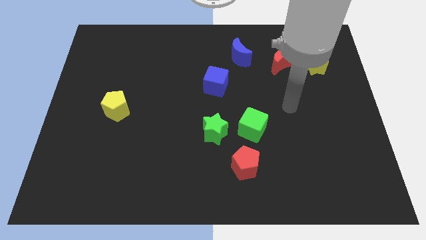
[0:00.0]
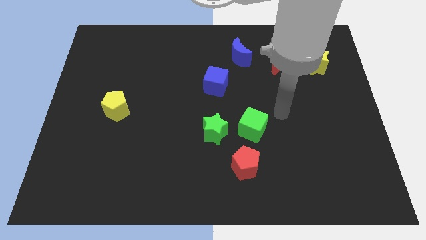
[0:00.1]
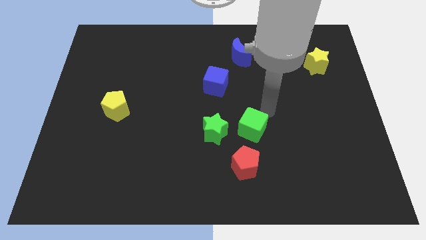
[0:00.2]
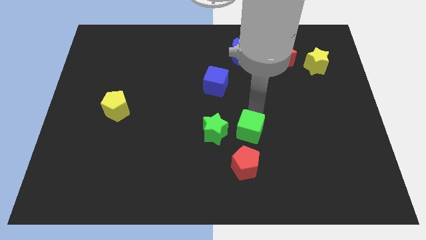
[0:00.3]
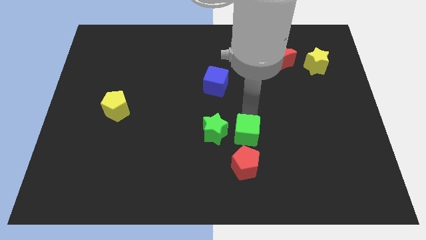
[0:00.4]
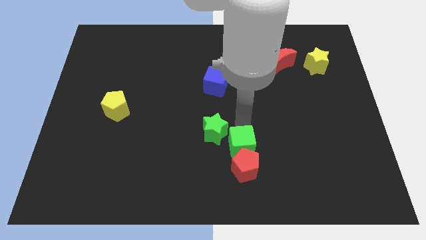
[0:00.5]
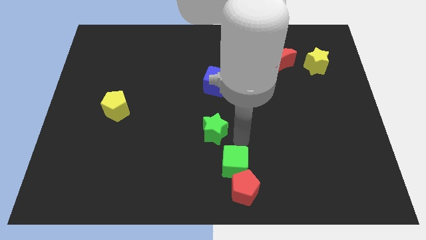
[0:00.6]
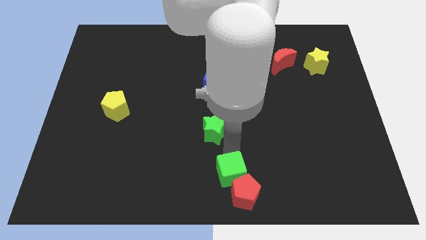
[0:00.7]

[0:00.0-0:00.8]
move the green star away from the green cube

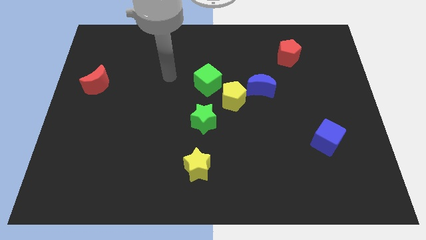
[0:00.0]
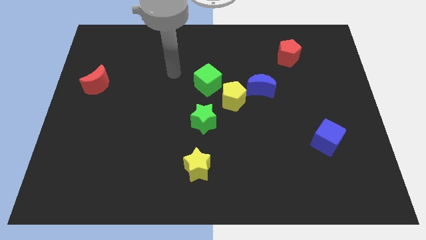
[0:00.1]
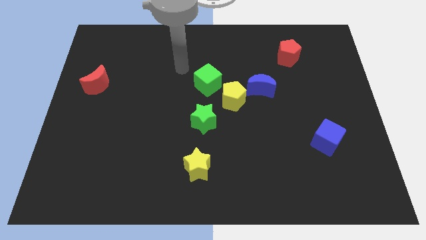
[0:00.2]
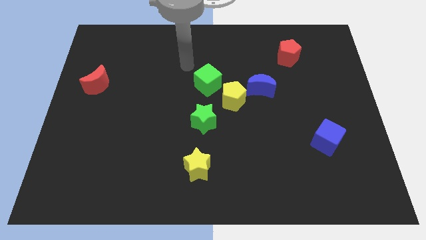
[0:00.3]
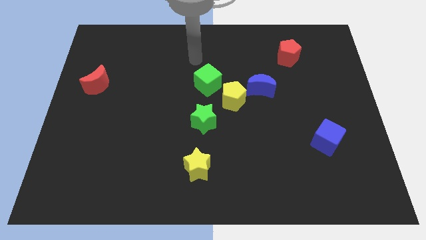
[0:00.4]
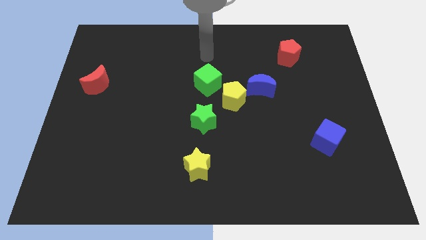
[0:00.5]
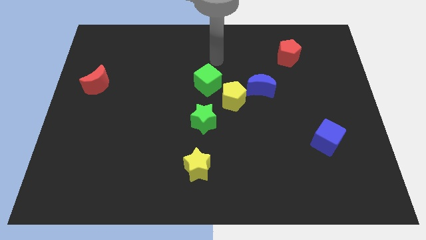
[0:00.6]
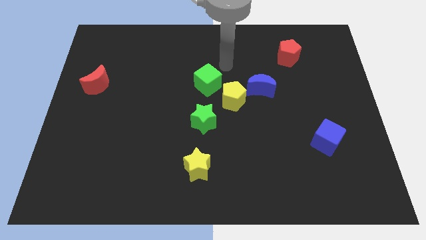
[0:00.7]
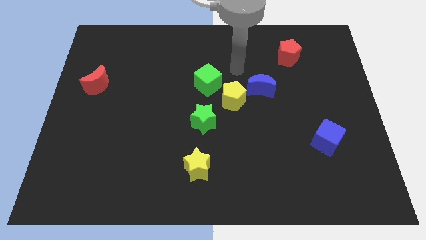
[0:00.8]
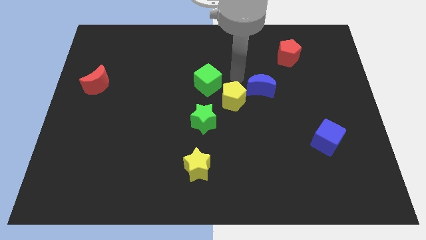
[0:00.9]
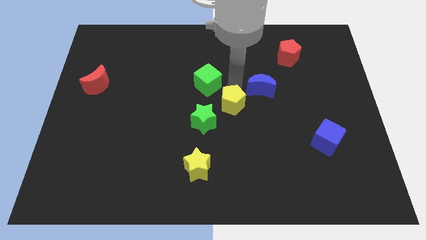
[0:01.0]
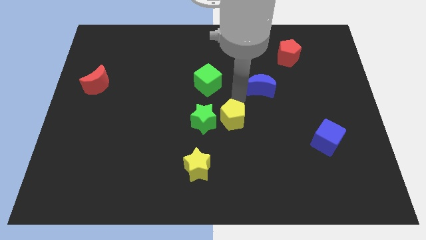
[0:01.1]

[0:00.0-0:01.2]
pull the blue moon apart from the yellow pentagon

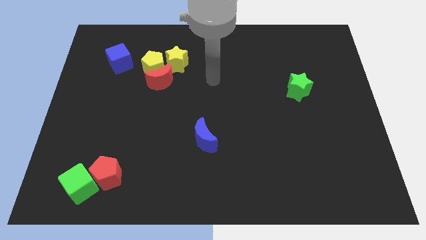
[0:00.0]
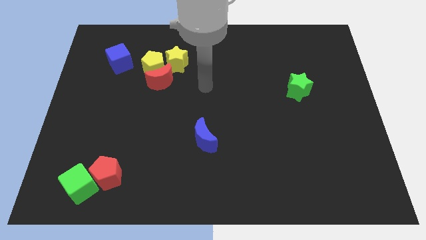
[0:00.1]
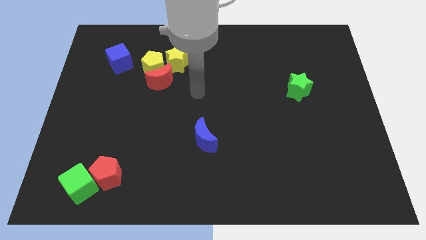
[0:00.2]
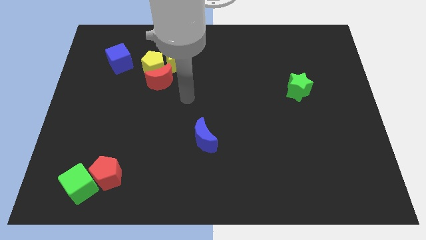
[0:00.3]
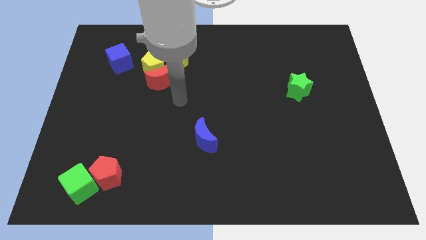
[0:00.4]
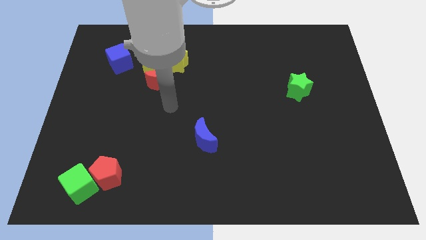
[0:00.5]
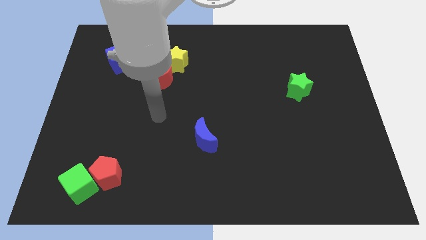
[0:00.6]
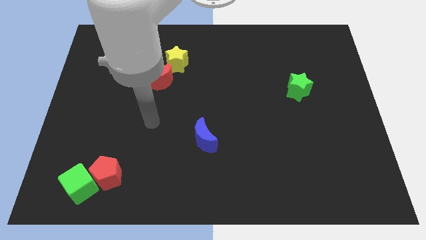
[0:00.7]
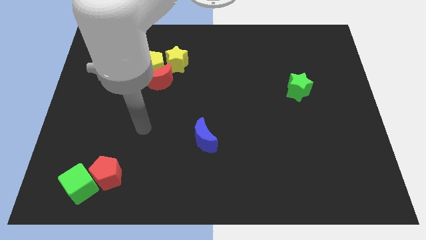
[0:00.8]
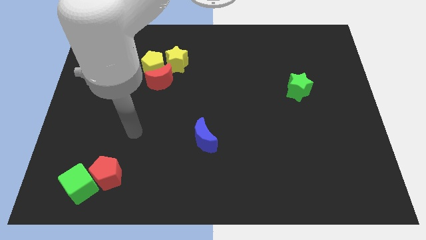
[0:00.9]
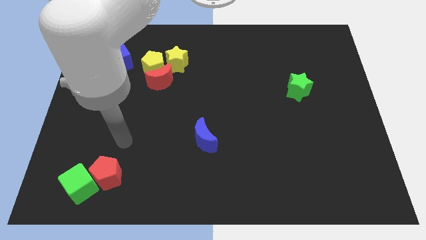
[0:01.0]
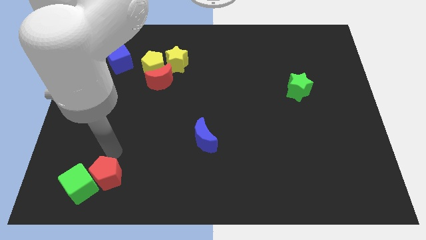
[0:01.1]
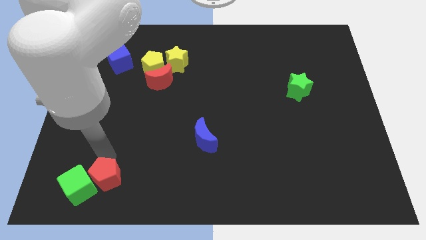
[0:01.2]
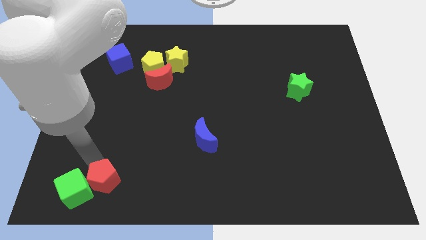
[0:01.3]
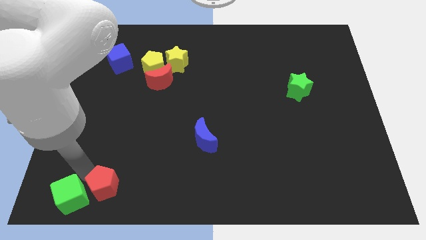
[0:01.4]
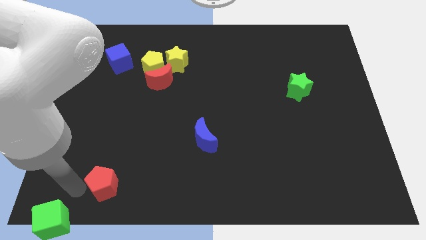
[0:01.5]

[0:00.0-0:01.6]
move the red pentagon away from the green cube

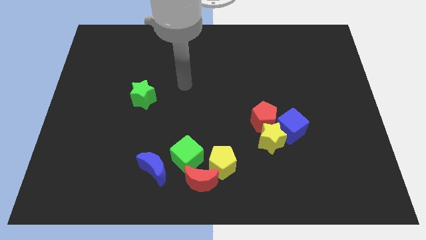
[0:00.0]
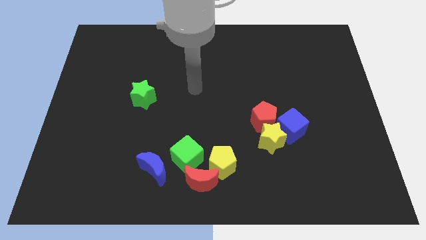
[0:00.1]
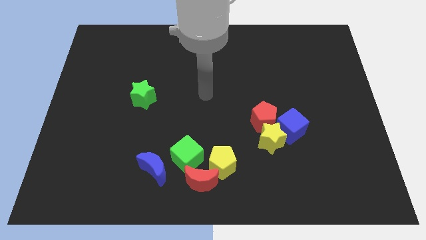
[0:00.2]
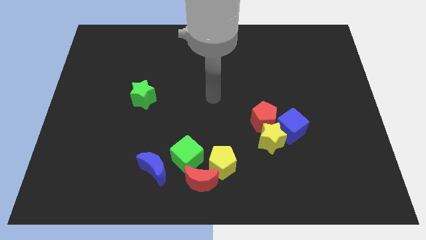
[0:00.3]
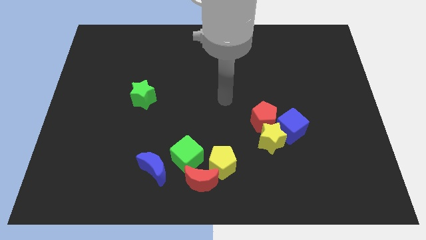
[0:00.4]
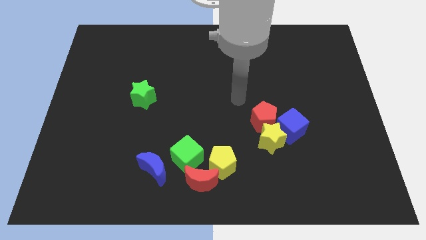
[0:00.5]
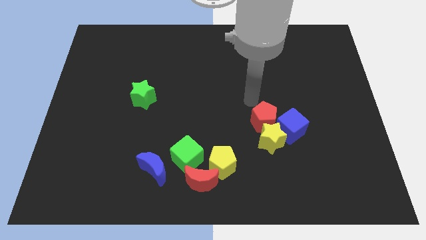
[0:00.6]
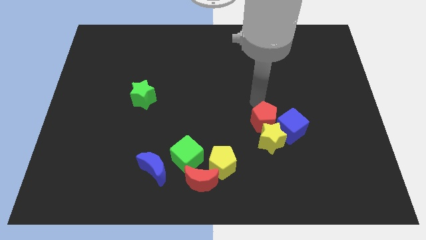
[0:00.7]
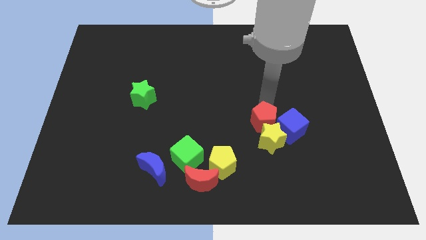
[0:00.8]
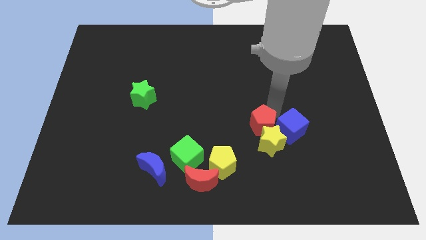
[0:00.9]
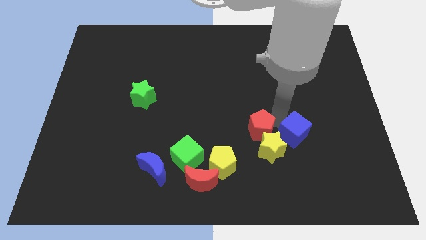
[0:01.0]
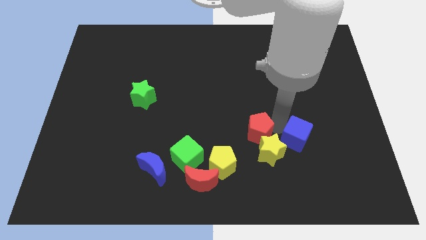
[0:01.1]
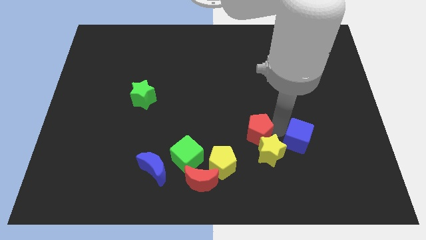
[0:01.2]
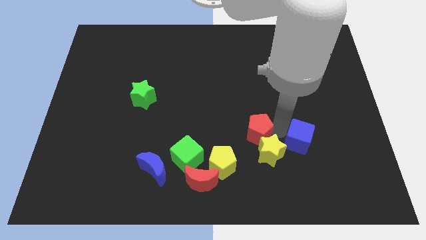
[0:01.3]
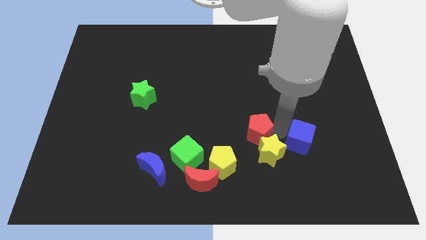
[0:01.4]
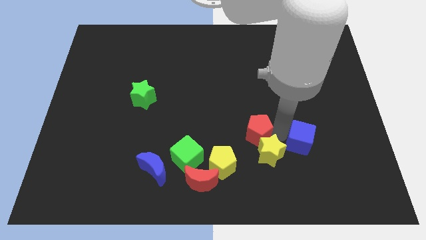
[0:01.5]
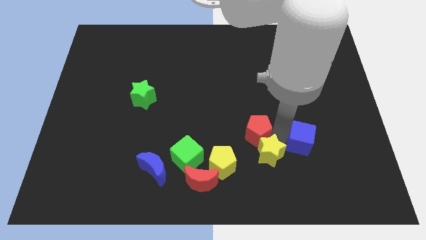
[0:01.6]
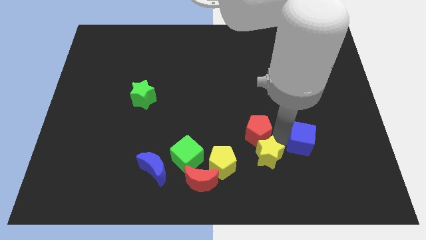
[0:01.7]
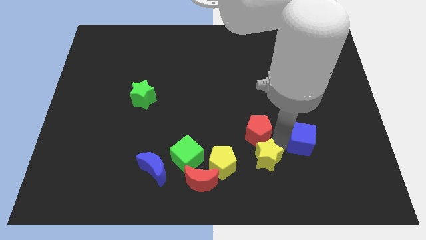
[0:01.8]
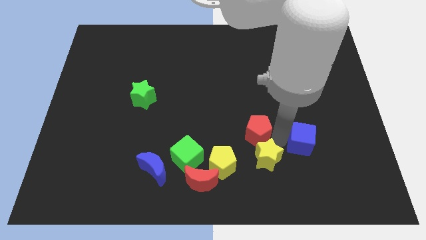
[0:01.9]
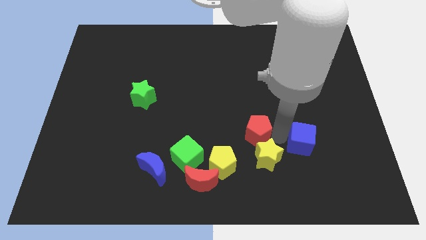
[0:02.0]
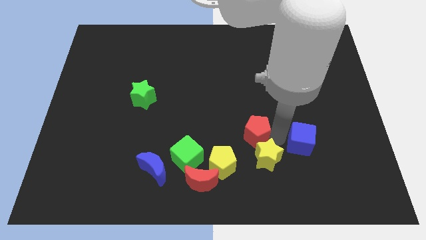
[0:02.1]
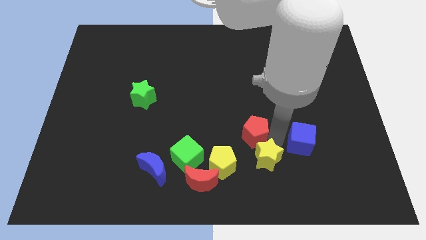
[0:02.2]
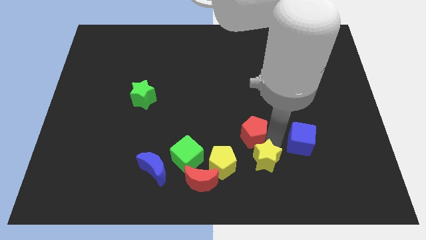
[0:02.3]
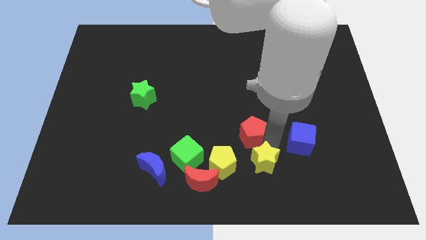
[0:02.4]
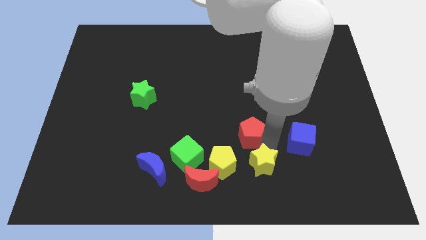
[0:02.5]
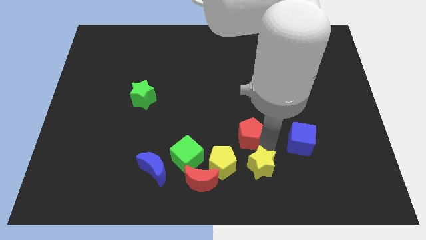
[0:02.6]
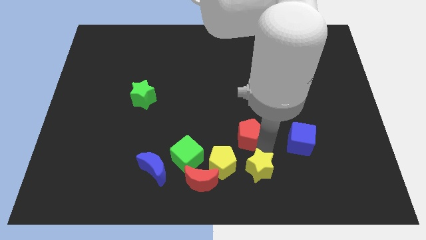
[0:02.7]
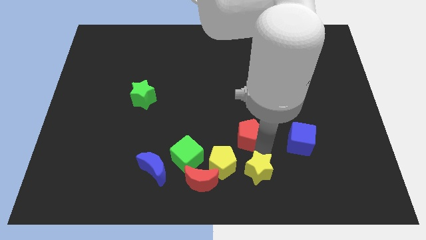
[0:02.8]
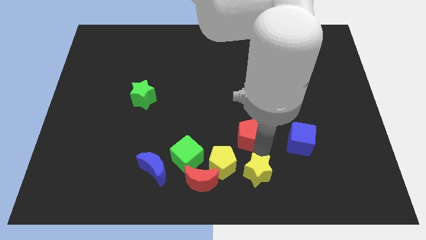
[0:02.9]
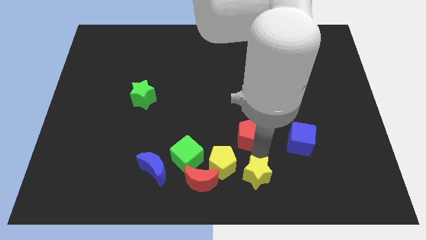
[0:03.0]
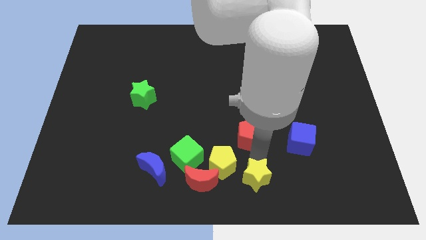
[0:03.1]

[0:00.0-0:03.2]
pull the yellow star apart from the red pentagon and blue cube

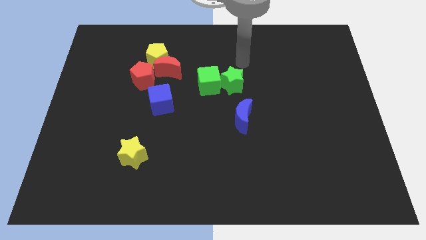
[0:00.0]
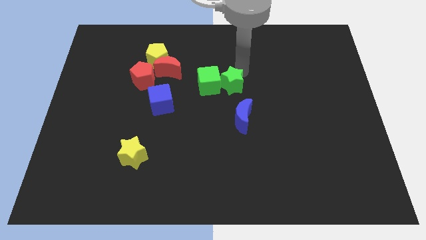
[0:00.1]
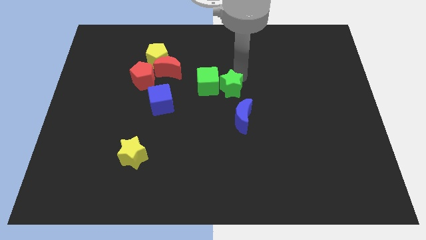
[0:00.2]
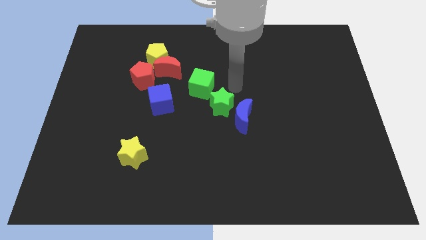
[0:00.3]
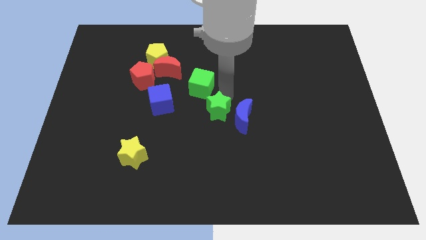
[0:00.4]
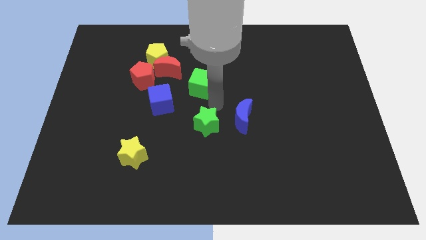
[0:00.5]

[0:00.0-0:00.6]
move the green cube away from the green star

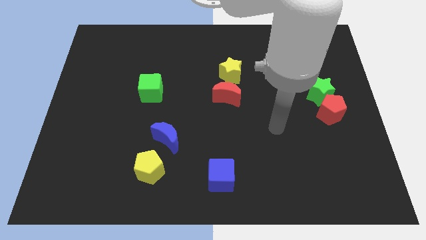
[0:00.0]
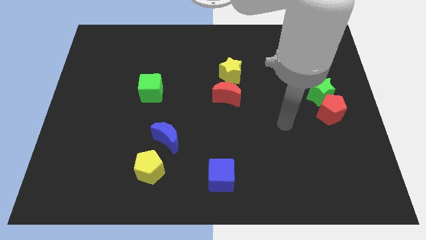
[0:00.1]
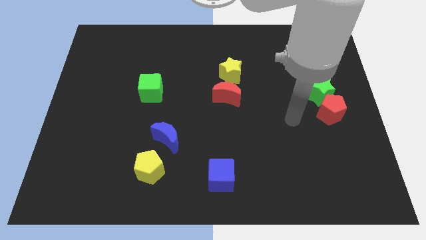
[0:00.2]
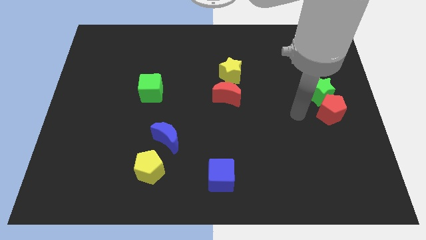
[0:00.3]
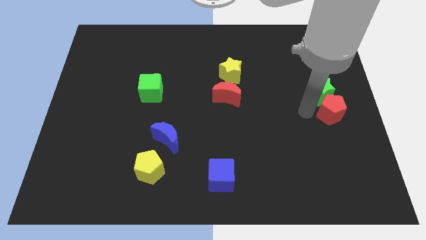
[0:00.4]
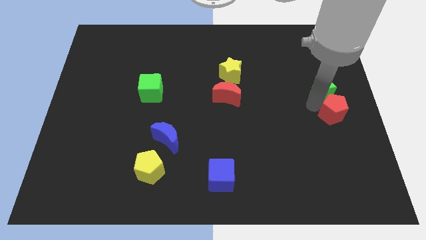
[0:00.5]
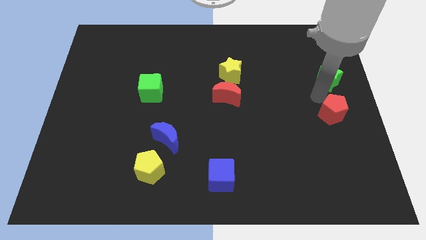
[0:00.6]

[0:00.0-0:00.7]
pull the red pentagon apart from the green star

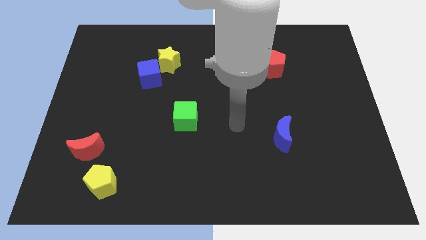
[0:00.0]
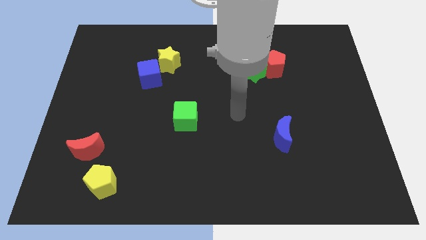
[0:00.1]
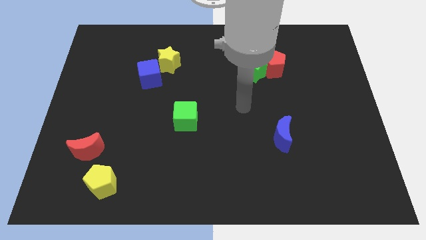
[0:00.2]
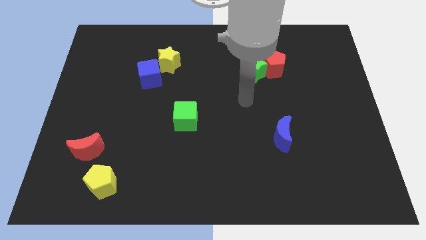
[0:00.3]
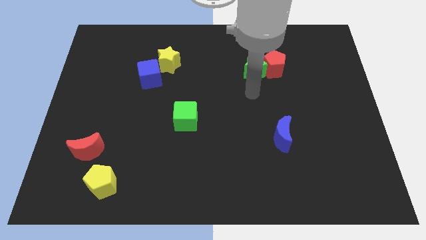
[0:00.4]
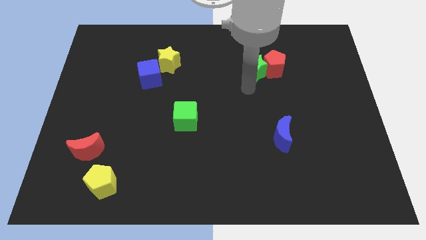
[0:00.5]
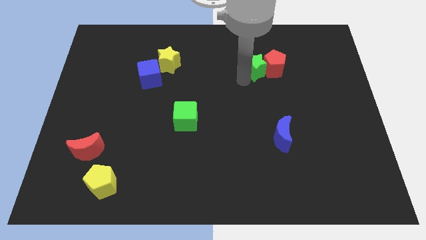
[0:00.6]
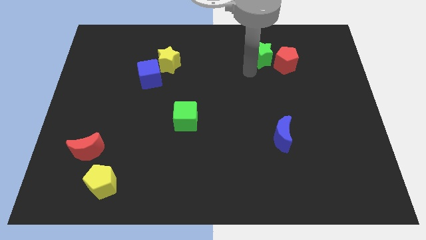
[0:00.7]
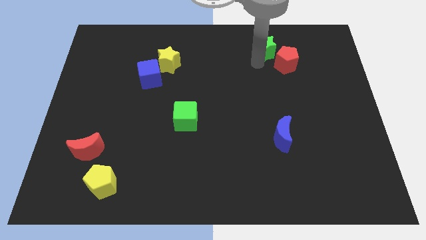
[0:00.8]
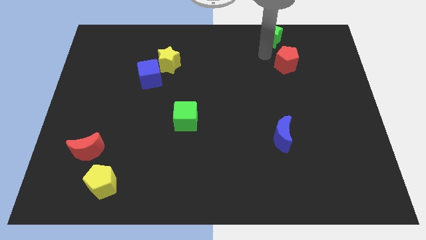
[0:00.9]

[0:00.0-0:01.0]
separate the red pentagon from the green star

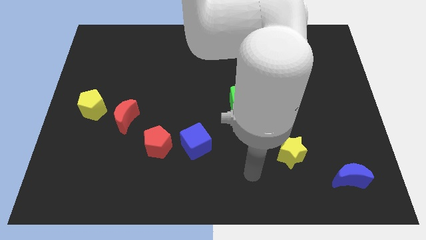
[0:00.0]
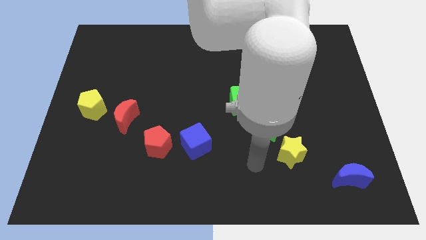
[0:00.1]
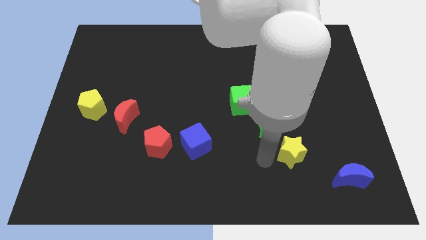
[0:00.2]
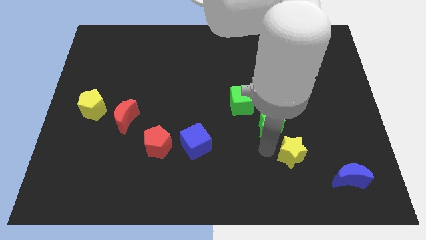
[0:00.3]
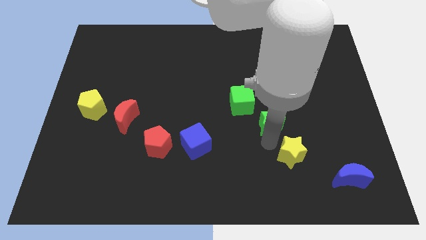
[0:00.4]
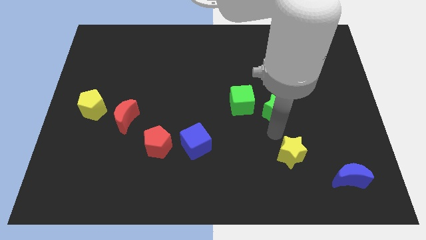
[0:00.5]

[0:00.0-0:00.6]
move the yellow star away from the green star
